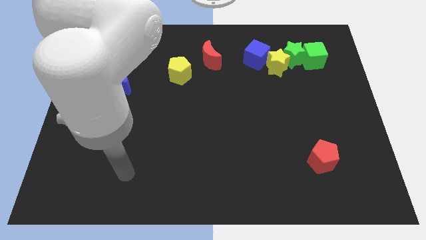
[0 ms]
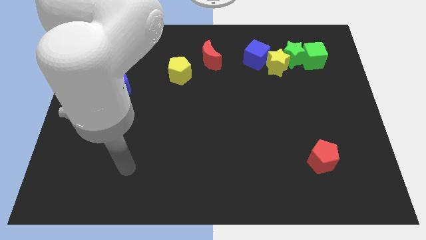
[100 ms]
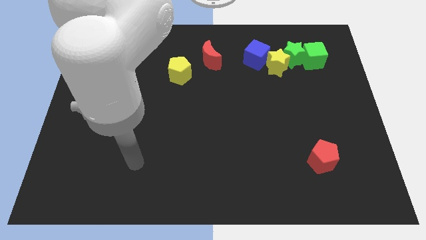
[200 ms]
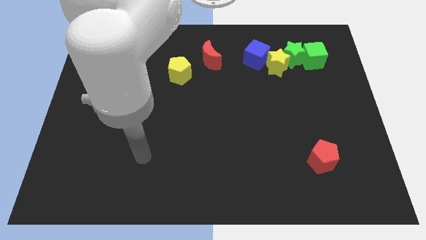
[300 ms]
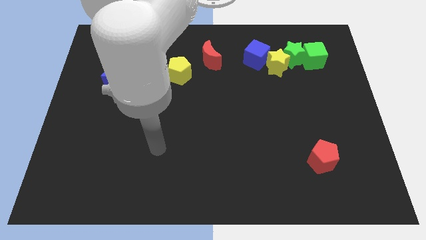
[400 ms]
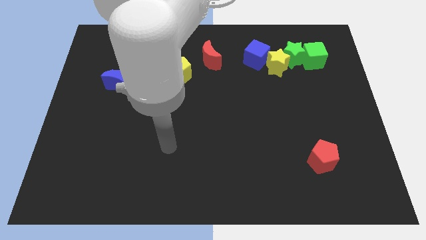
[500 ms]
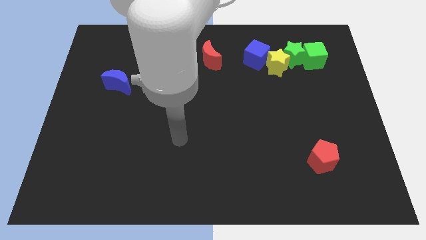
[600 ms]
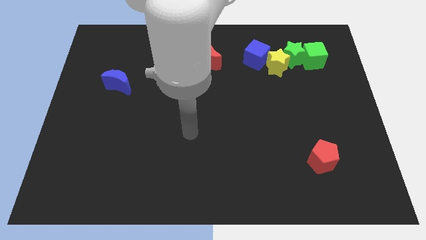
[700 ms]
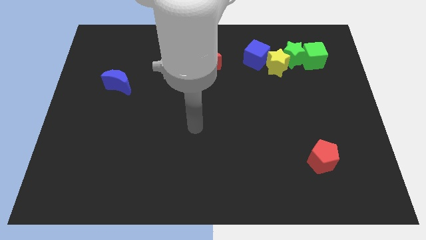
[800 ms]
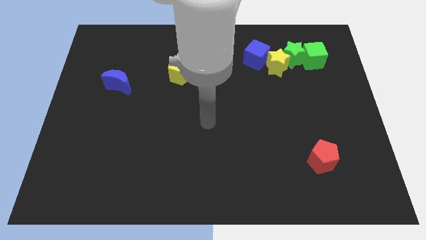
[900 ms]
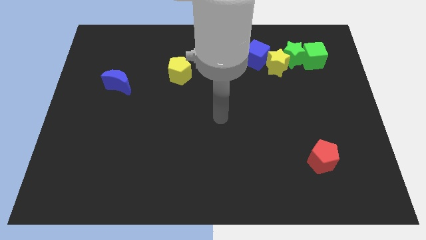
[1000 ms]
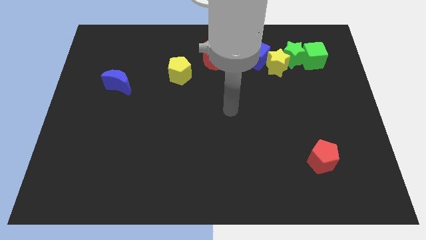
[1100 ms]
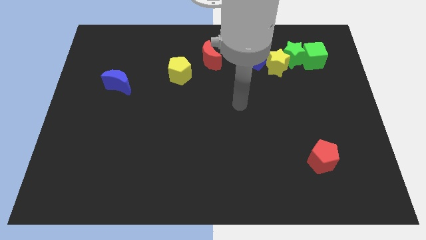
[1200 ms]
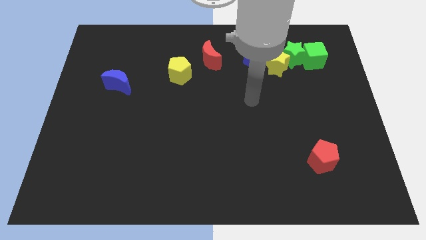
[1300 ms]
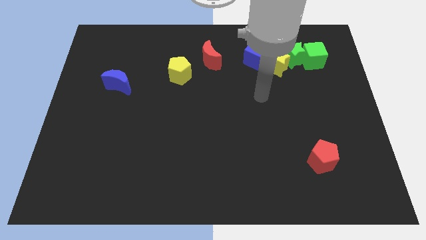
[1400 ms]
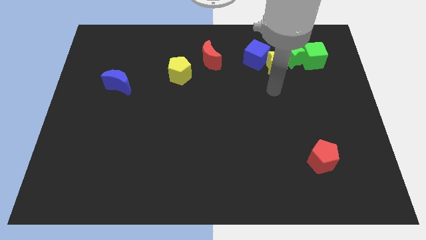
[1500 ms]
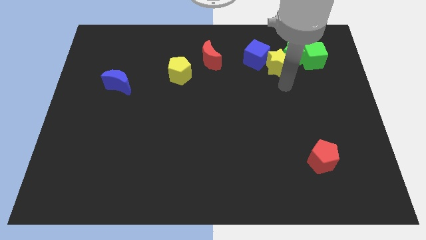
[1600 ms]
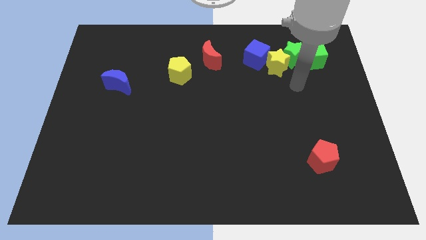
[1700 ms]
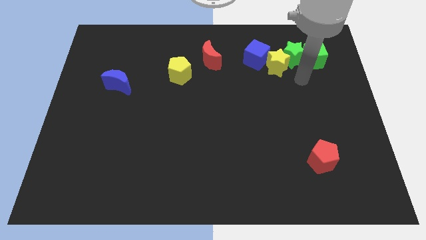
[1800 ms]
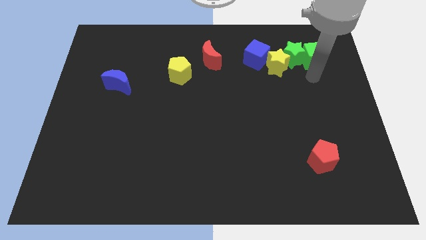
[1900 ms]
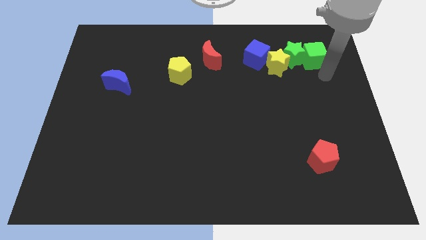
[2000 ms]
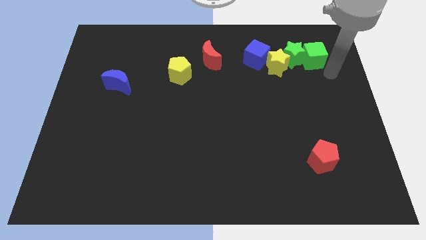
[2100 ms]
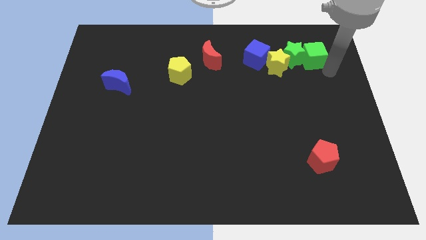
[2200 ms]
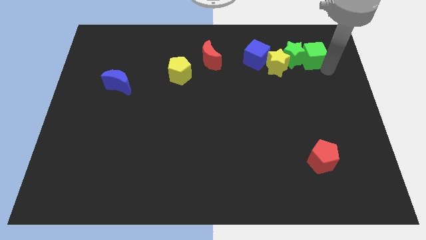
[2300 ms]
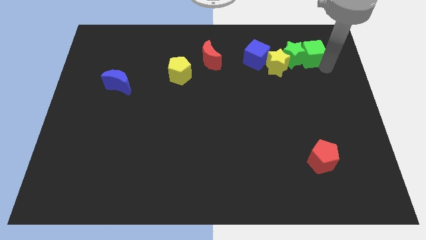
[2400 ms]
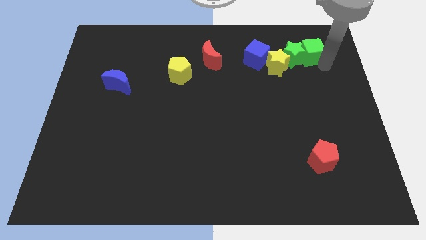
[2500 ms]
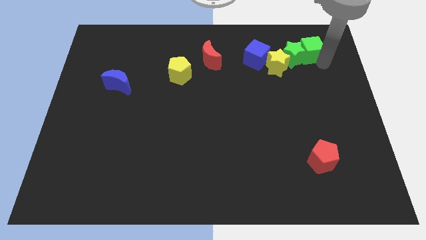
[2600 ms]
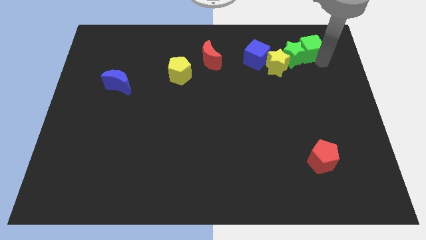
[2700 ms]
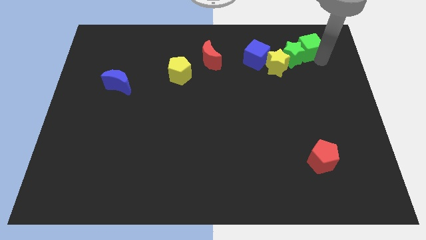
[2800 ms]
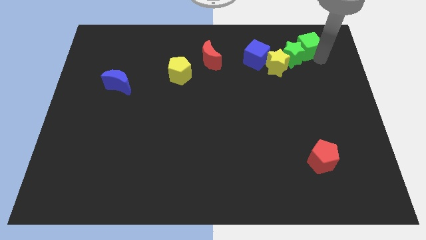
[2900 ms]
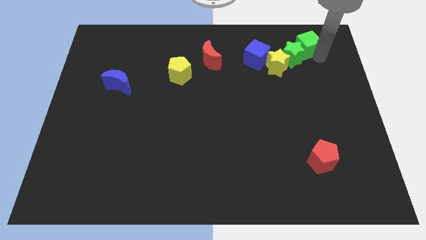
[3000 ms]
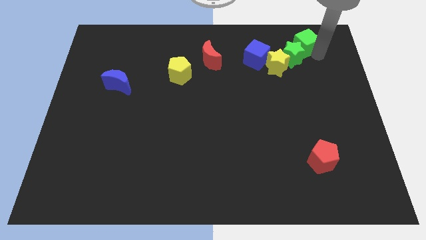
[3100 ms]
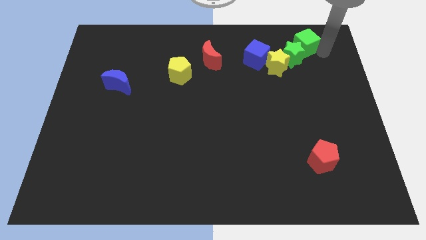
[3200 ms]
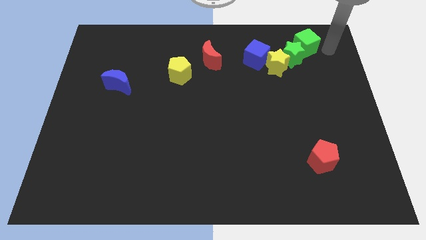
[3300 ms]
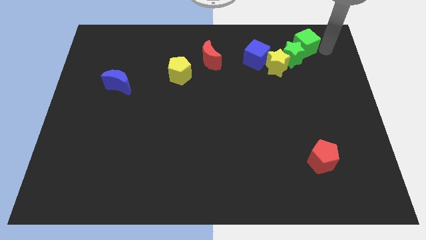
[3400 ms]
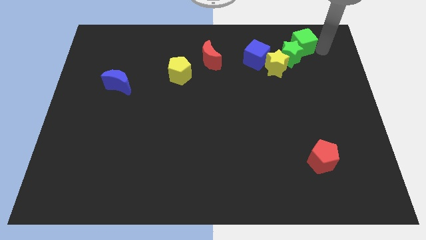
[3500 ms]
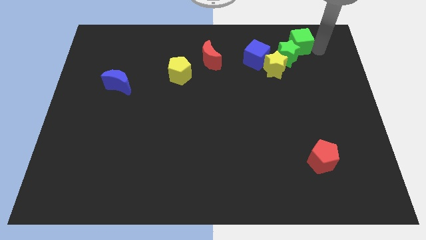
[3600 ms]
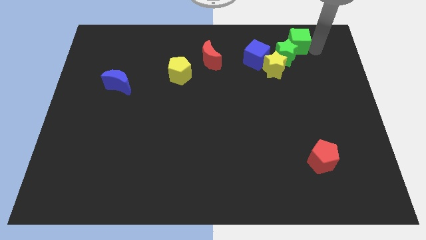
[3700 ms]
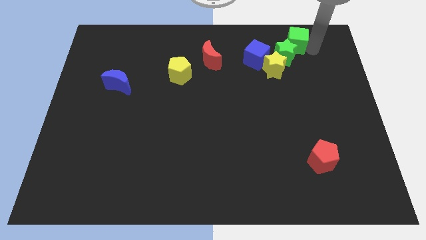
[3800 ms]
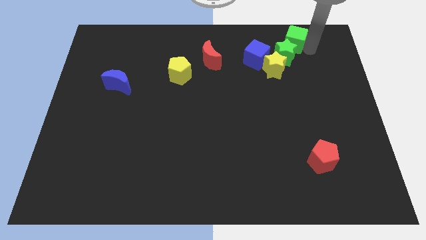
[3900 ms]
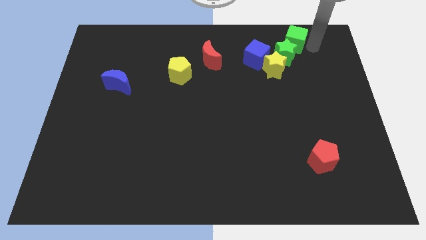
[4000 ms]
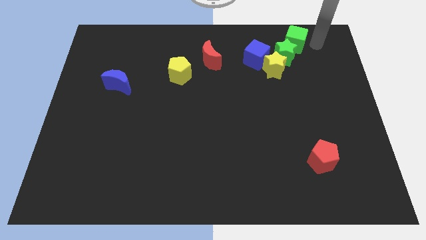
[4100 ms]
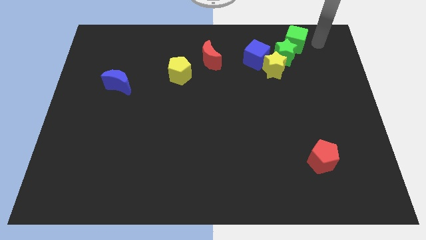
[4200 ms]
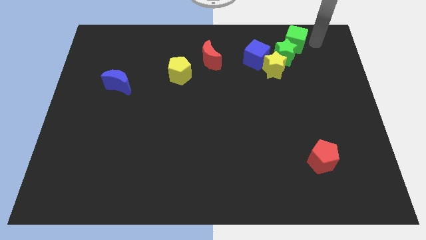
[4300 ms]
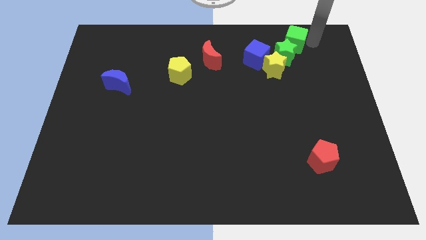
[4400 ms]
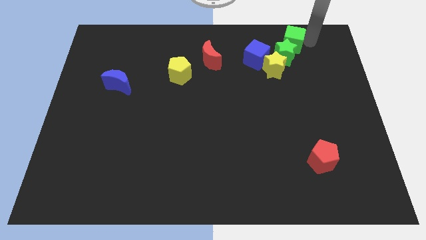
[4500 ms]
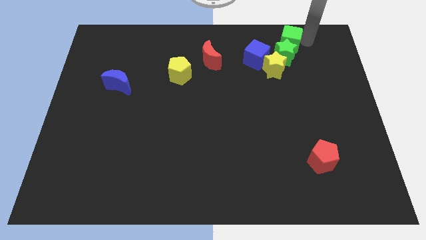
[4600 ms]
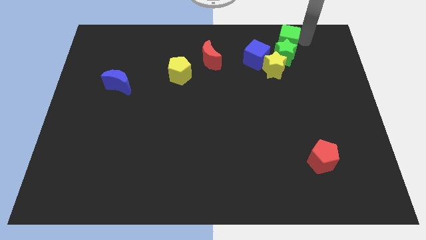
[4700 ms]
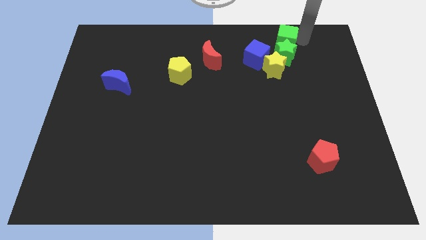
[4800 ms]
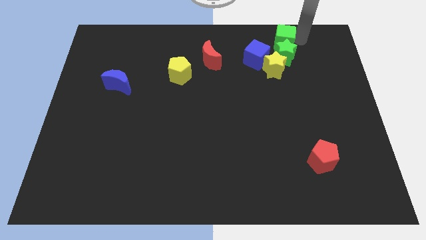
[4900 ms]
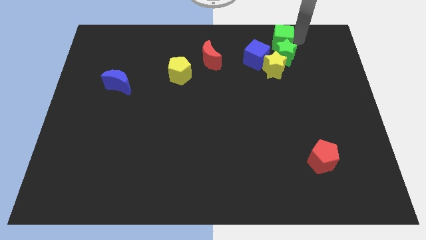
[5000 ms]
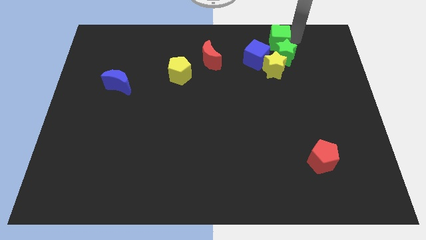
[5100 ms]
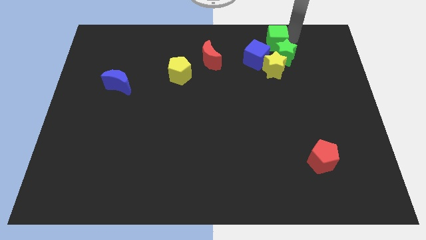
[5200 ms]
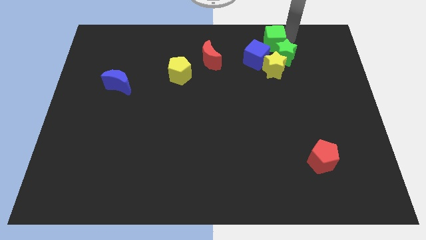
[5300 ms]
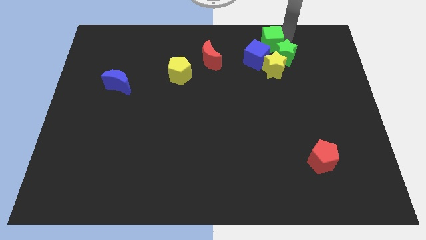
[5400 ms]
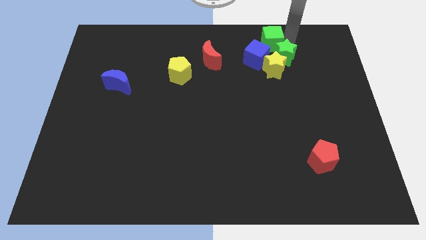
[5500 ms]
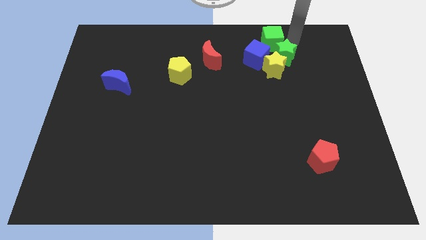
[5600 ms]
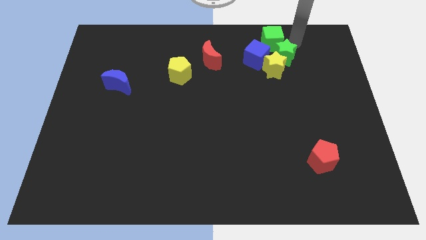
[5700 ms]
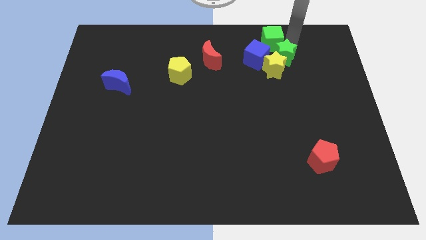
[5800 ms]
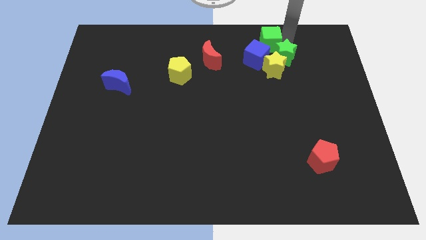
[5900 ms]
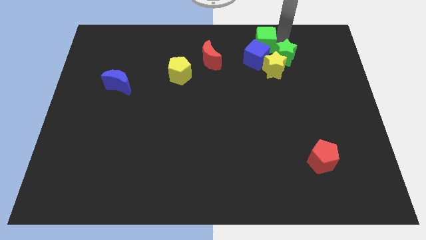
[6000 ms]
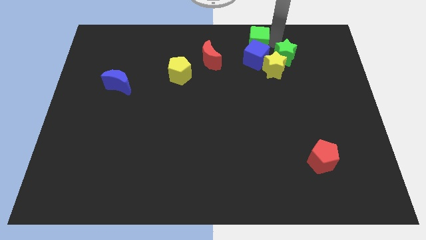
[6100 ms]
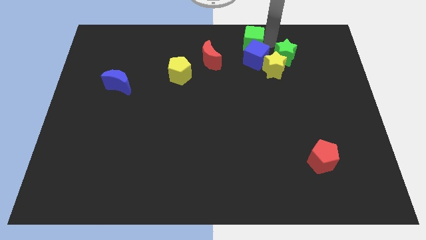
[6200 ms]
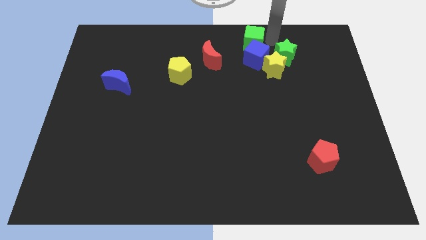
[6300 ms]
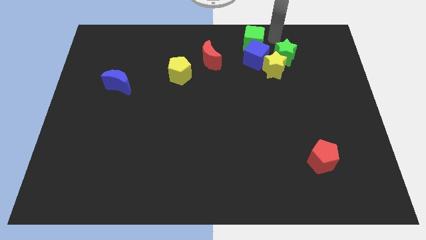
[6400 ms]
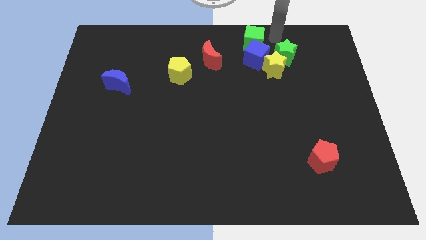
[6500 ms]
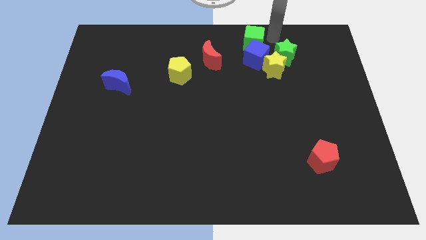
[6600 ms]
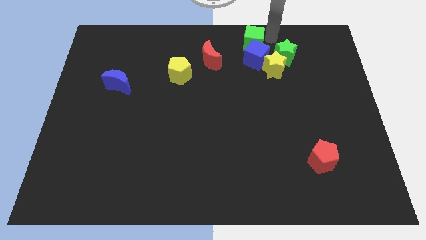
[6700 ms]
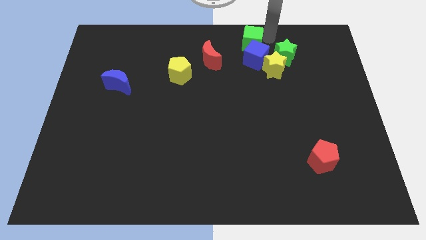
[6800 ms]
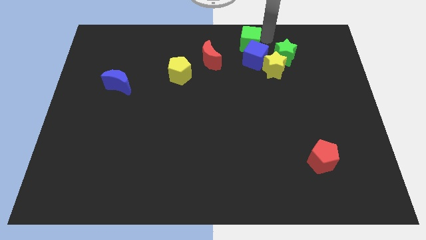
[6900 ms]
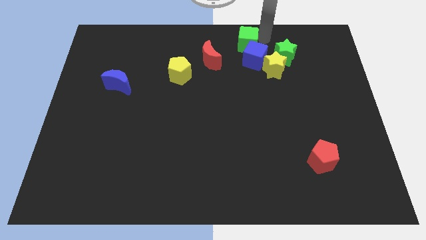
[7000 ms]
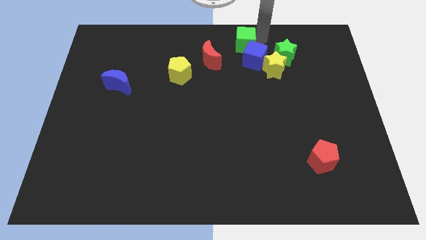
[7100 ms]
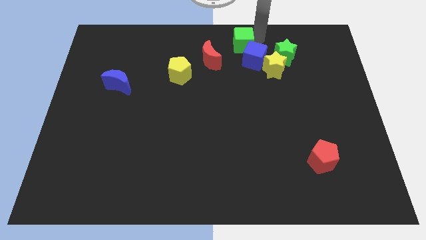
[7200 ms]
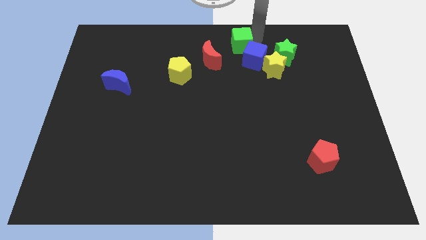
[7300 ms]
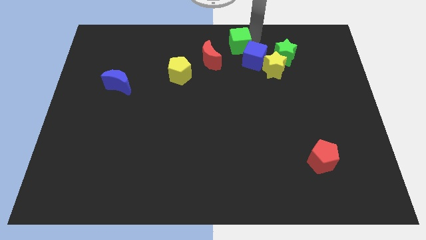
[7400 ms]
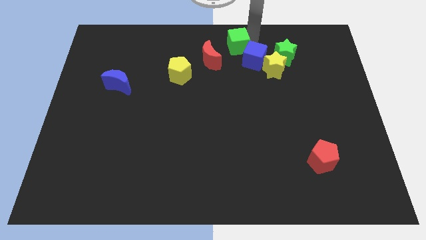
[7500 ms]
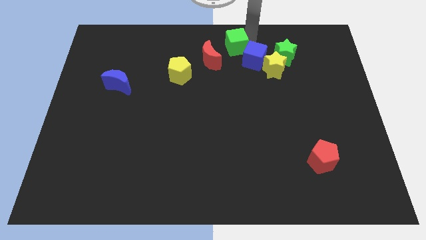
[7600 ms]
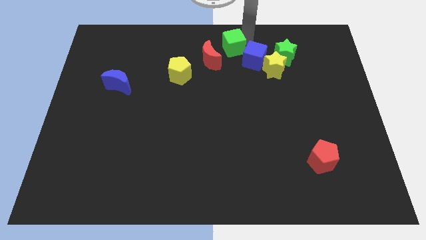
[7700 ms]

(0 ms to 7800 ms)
move the green cube to the left

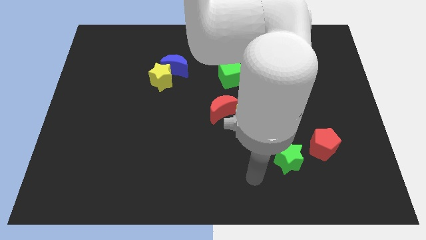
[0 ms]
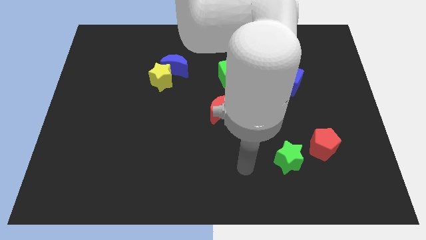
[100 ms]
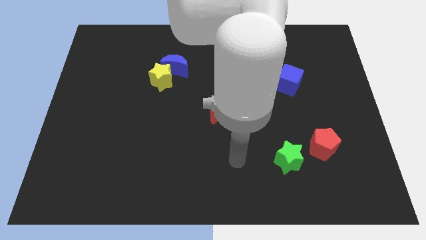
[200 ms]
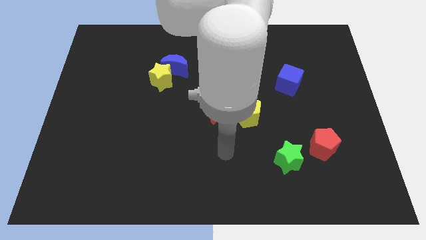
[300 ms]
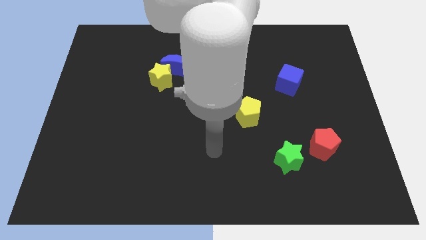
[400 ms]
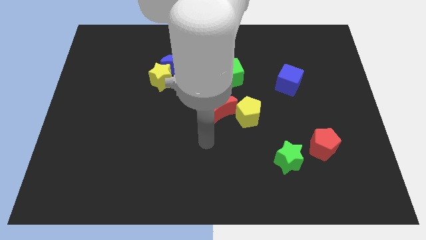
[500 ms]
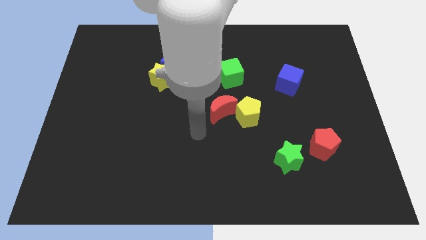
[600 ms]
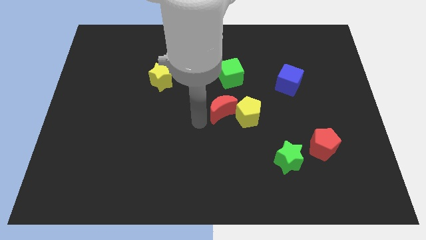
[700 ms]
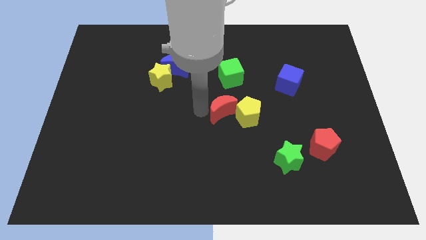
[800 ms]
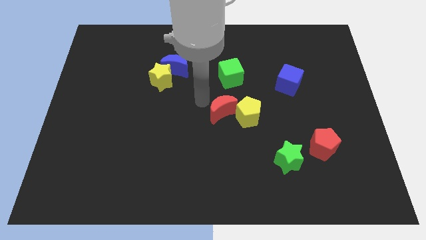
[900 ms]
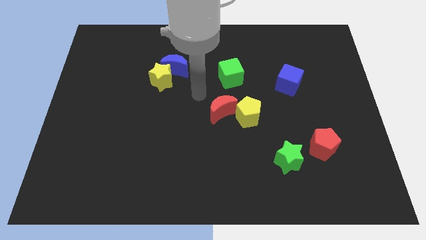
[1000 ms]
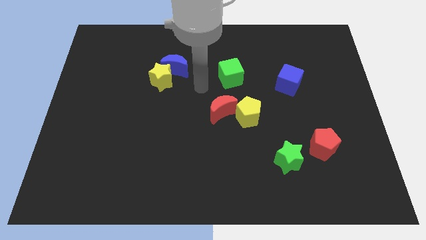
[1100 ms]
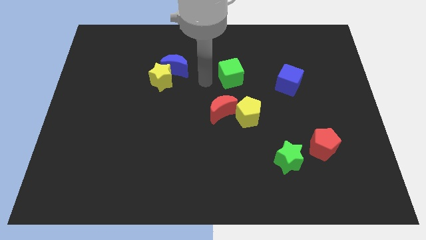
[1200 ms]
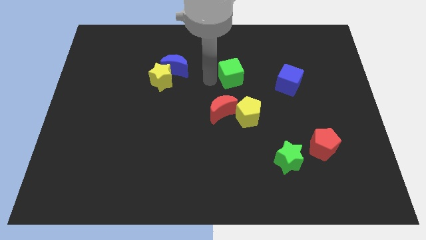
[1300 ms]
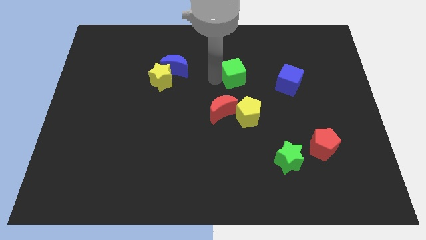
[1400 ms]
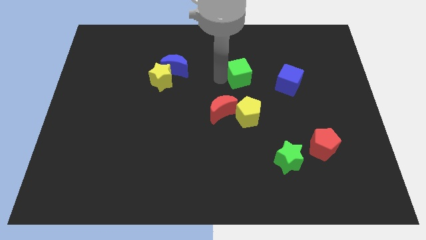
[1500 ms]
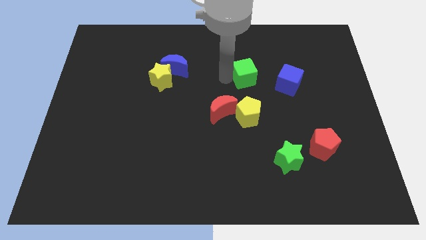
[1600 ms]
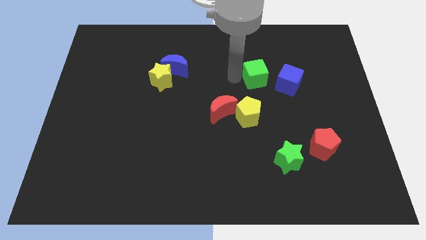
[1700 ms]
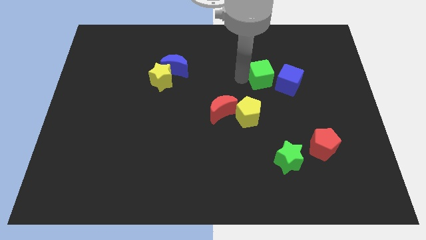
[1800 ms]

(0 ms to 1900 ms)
slightly slide the green cube right
